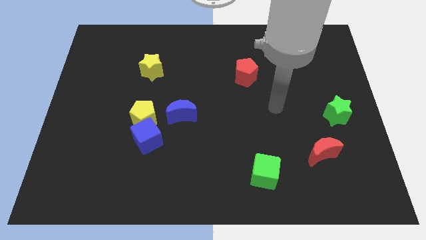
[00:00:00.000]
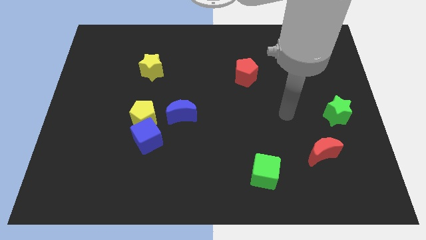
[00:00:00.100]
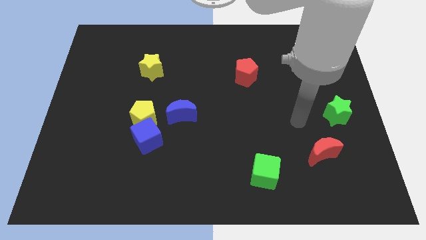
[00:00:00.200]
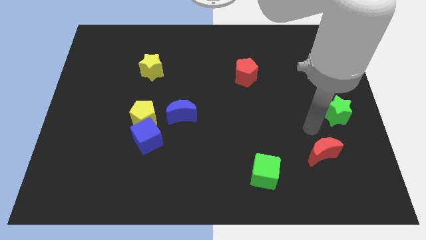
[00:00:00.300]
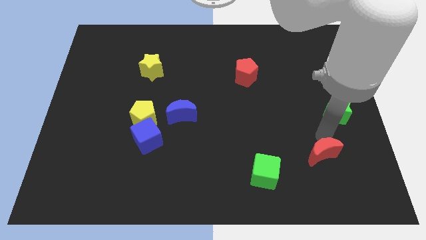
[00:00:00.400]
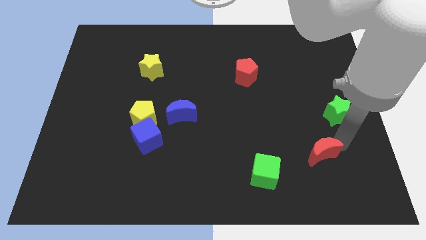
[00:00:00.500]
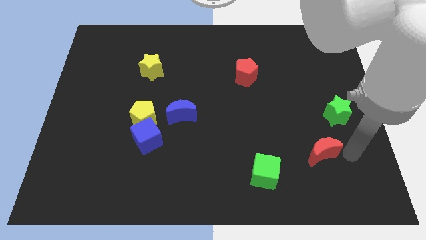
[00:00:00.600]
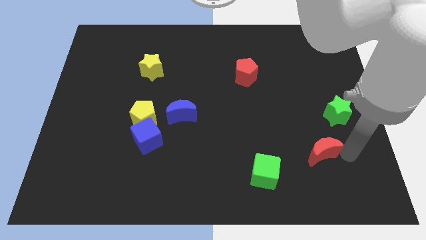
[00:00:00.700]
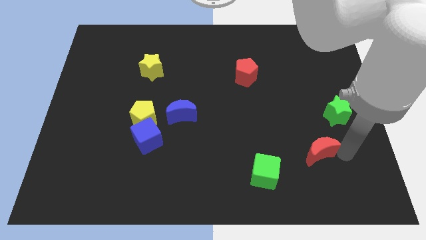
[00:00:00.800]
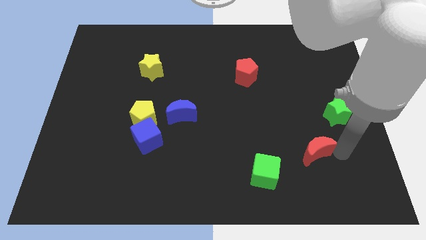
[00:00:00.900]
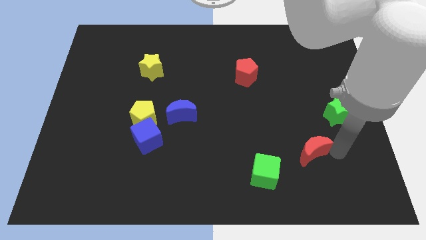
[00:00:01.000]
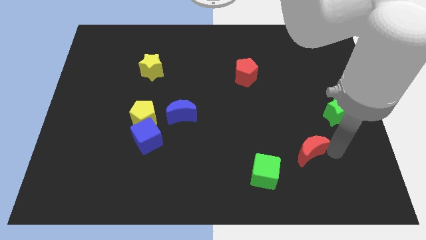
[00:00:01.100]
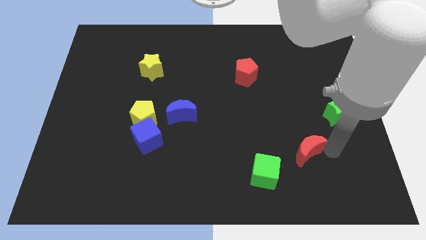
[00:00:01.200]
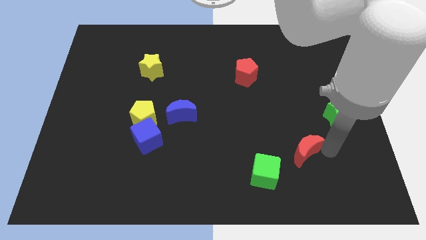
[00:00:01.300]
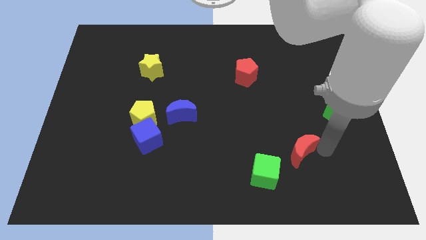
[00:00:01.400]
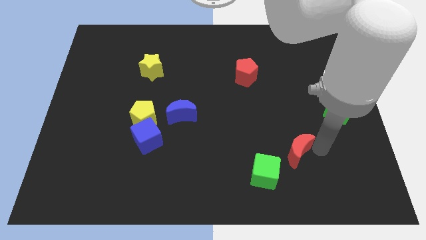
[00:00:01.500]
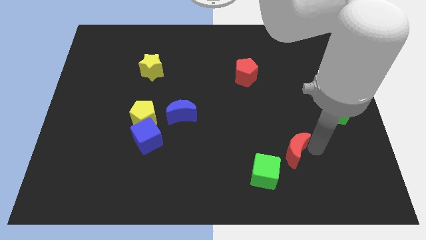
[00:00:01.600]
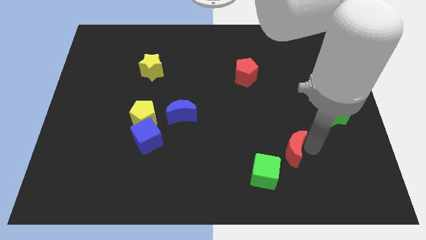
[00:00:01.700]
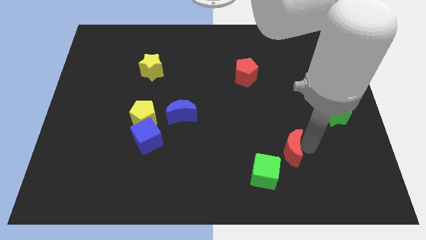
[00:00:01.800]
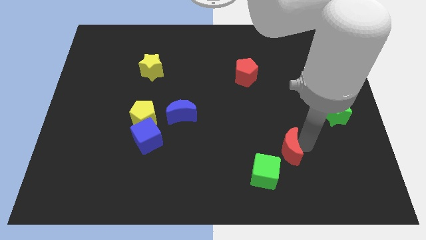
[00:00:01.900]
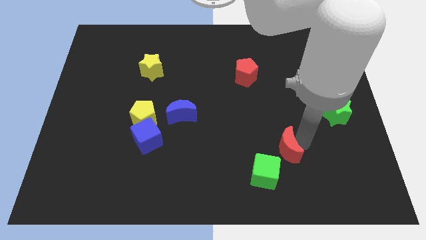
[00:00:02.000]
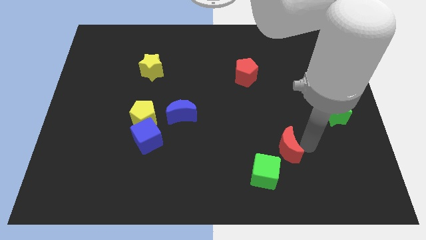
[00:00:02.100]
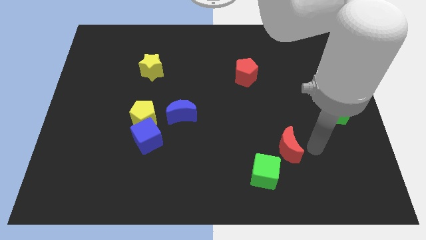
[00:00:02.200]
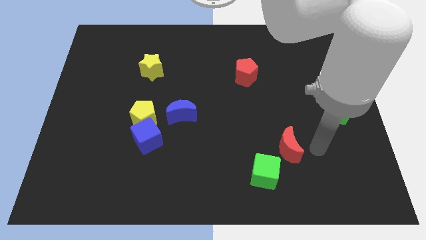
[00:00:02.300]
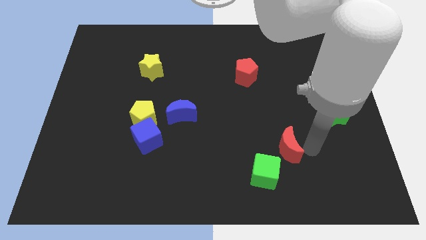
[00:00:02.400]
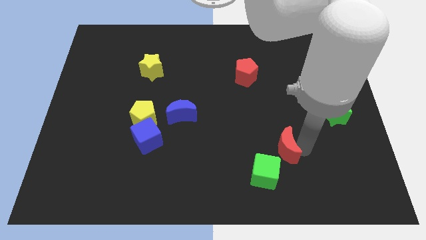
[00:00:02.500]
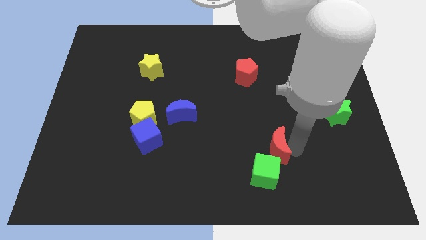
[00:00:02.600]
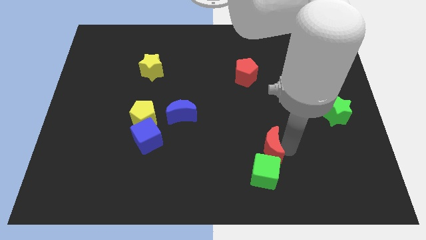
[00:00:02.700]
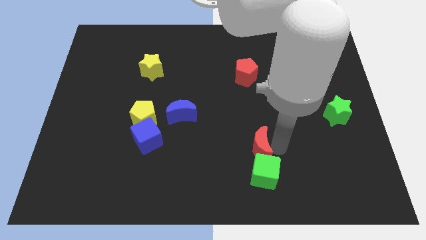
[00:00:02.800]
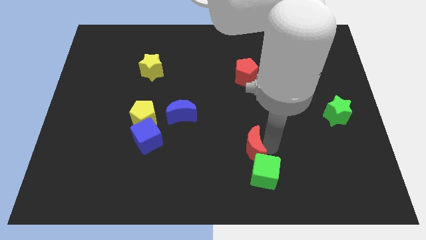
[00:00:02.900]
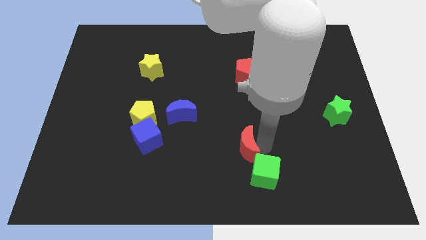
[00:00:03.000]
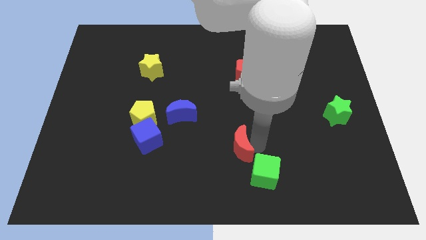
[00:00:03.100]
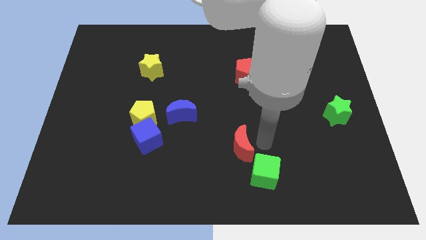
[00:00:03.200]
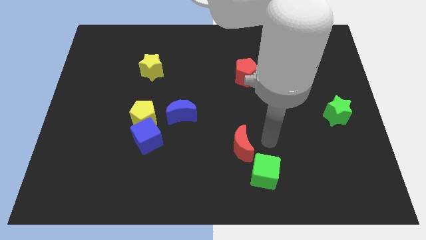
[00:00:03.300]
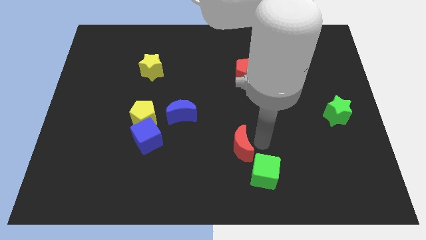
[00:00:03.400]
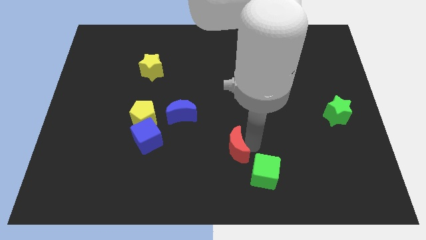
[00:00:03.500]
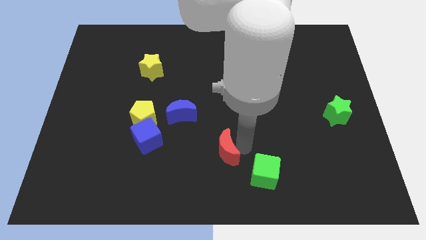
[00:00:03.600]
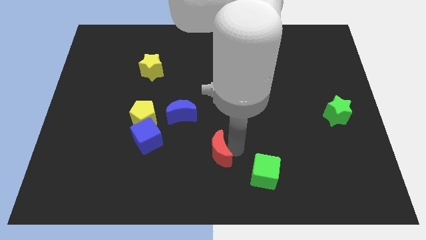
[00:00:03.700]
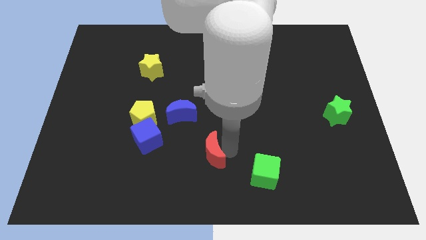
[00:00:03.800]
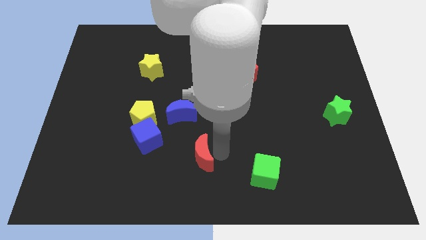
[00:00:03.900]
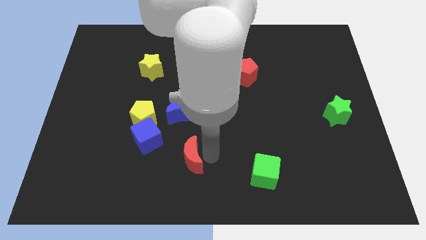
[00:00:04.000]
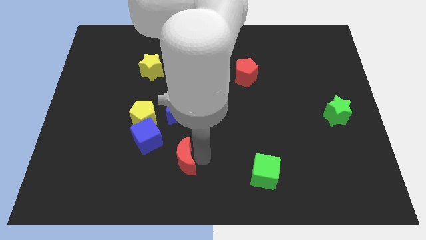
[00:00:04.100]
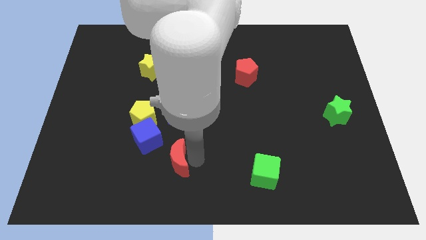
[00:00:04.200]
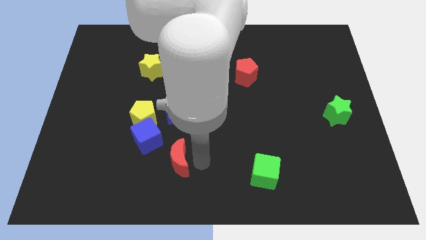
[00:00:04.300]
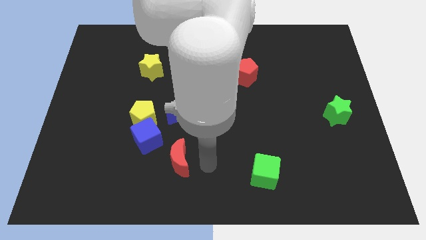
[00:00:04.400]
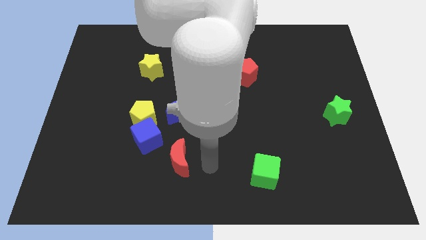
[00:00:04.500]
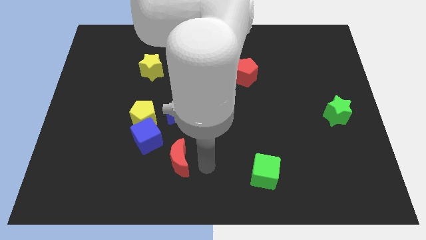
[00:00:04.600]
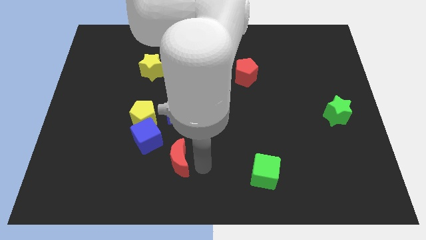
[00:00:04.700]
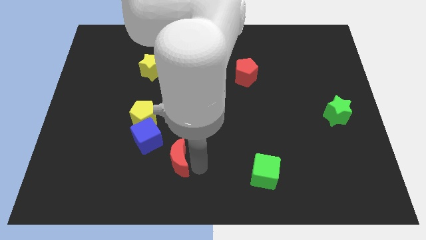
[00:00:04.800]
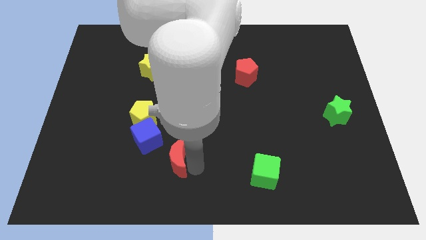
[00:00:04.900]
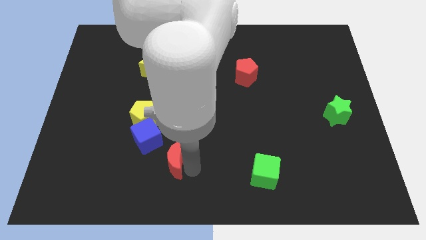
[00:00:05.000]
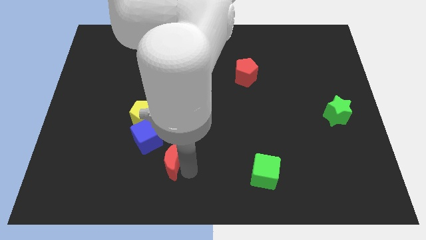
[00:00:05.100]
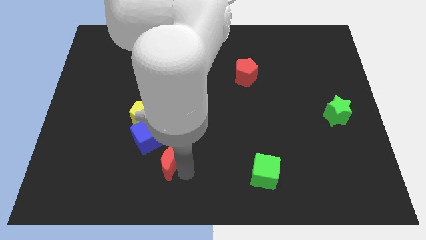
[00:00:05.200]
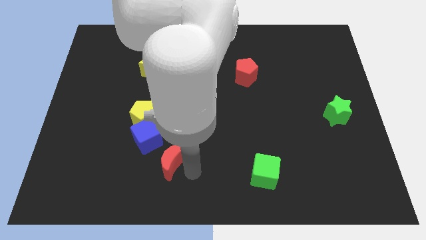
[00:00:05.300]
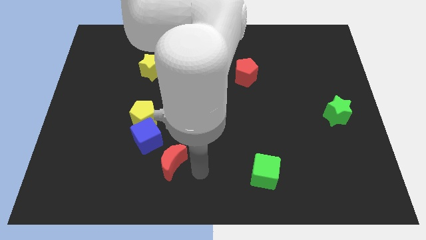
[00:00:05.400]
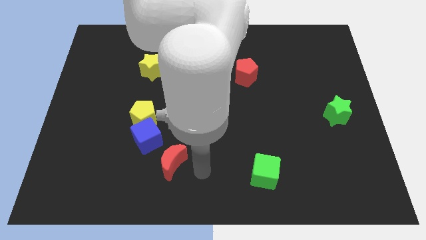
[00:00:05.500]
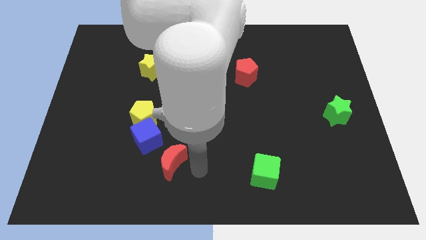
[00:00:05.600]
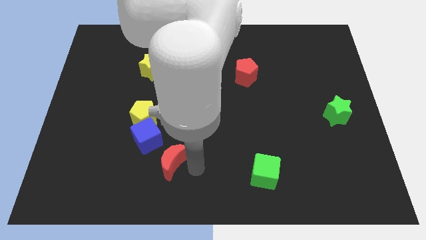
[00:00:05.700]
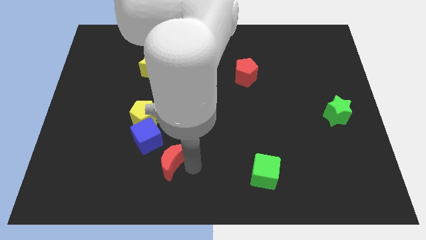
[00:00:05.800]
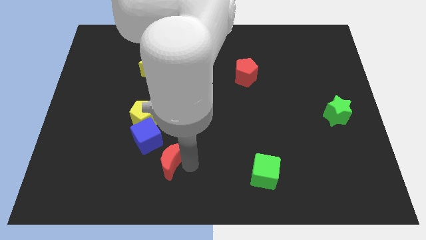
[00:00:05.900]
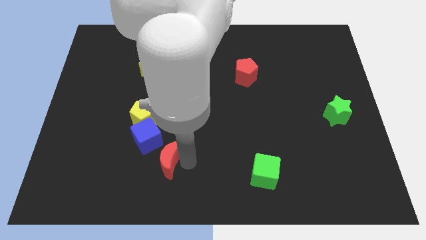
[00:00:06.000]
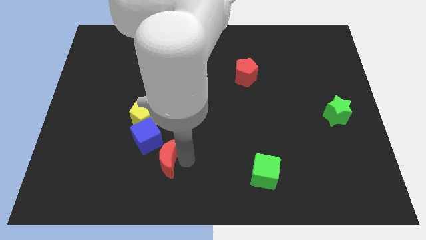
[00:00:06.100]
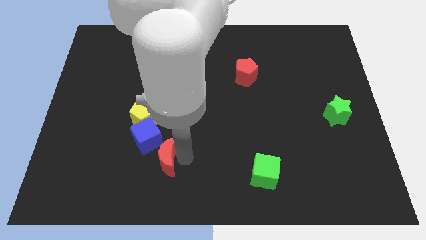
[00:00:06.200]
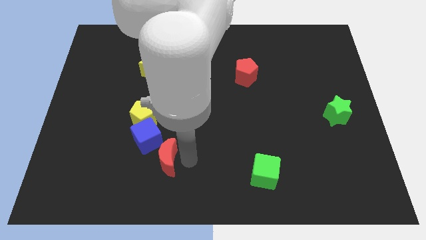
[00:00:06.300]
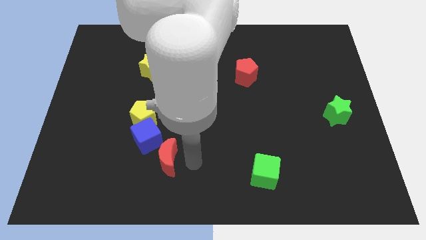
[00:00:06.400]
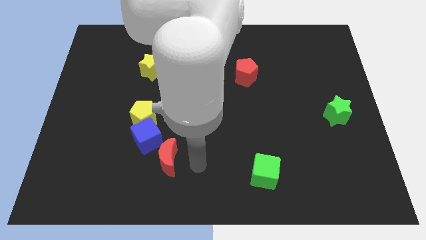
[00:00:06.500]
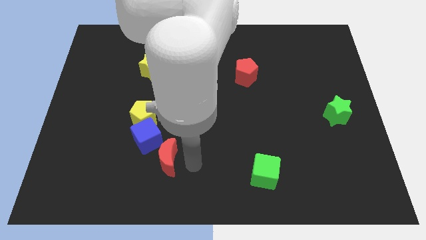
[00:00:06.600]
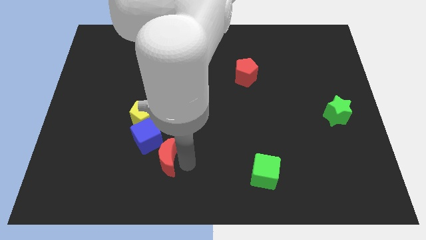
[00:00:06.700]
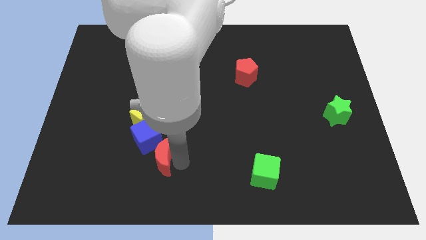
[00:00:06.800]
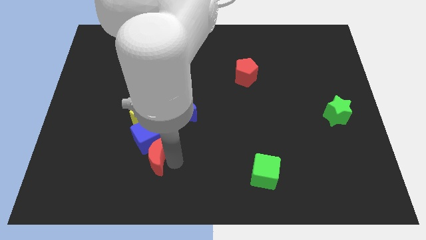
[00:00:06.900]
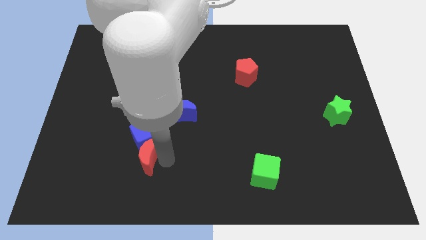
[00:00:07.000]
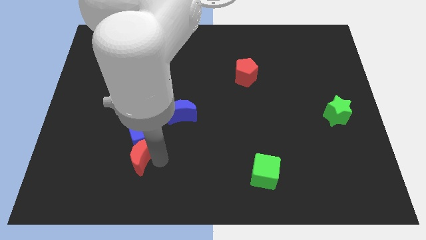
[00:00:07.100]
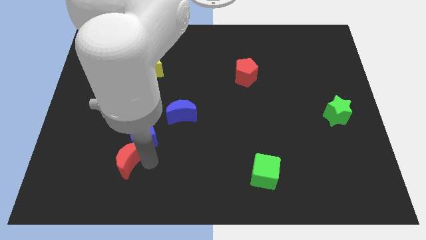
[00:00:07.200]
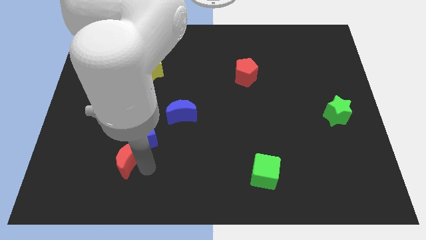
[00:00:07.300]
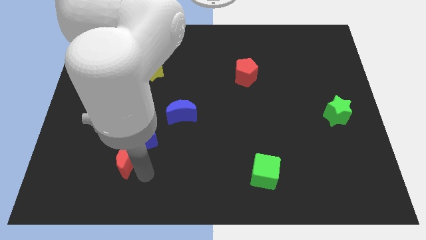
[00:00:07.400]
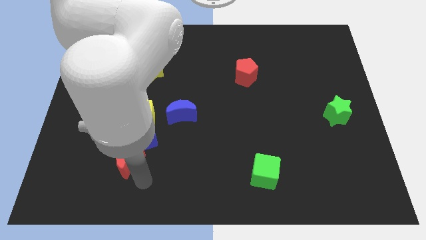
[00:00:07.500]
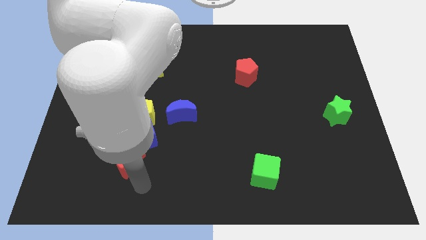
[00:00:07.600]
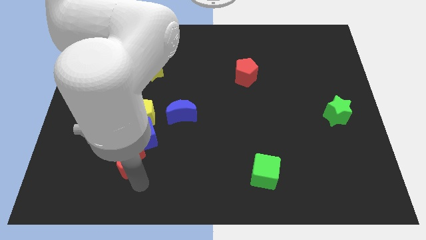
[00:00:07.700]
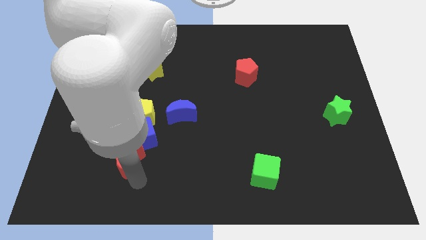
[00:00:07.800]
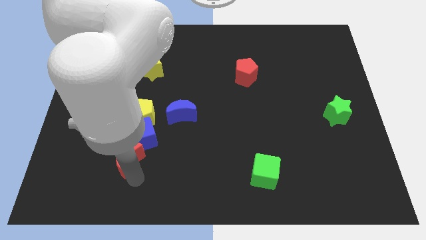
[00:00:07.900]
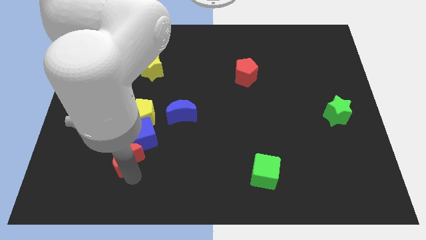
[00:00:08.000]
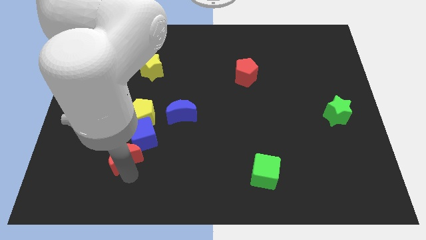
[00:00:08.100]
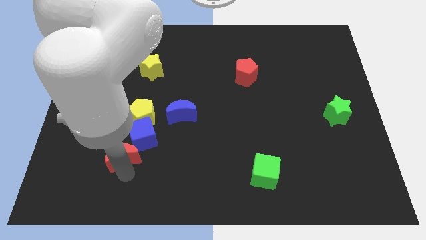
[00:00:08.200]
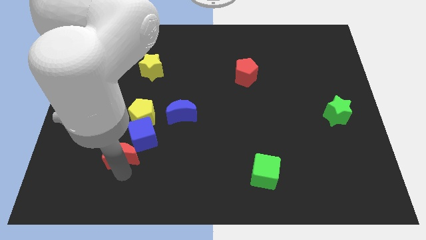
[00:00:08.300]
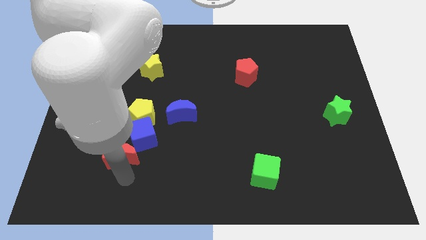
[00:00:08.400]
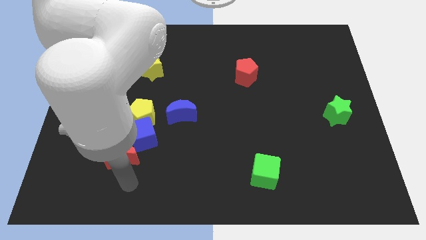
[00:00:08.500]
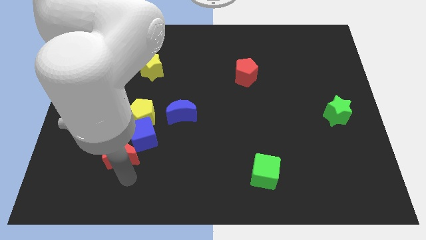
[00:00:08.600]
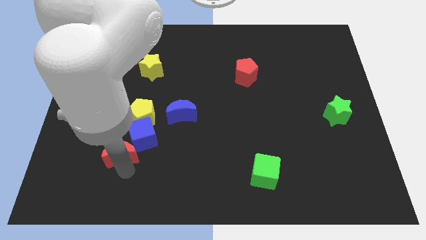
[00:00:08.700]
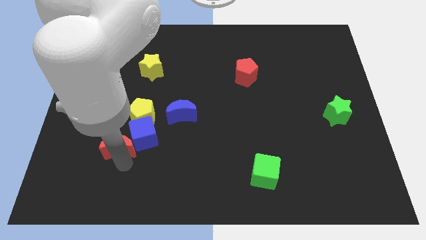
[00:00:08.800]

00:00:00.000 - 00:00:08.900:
put the red moon to the bottom left side of the yellow pentagon
